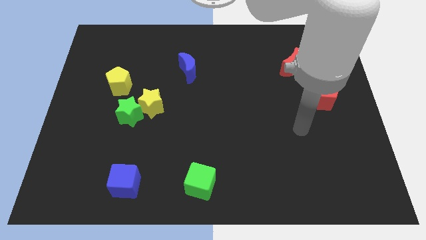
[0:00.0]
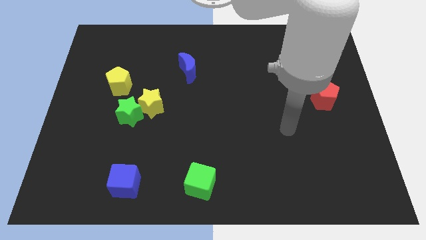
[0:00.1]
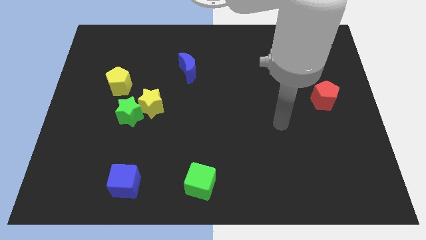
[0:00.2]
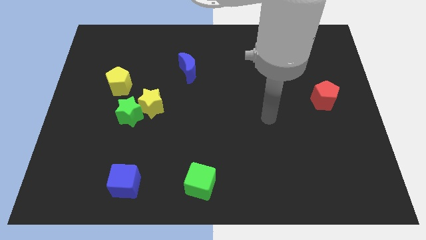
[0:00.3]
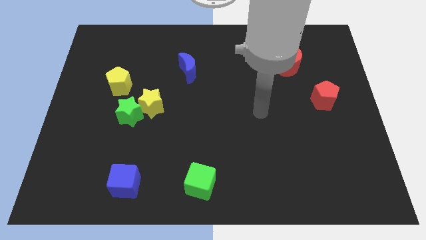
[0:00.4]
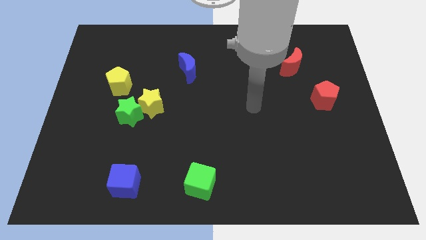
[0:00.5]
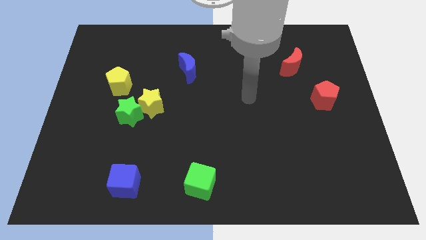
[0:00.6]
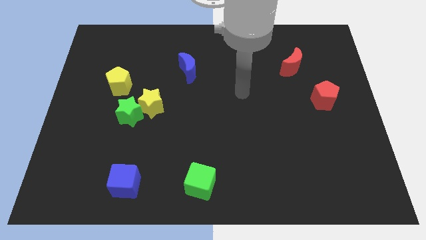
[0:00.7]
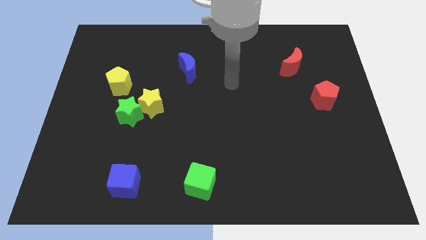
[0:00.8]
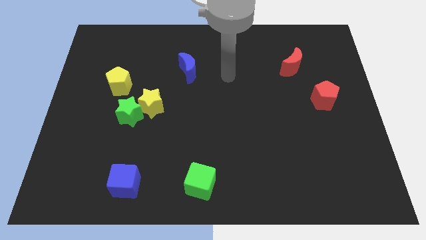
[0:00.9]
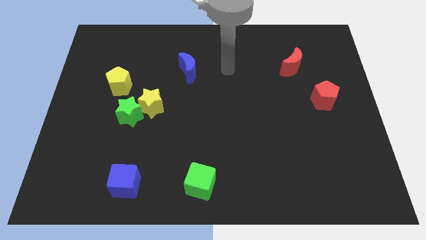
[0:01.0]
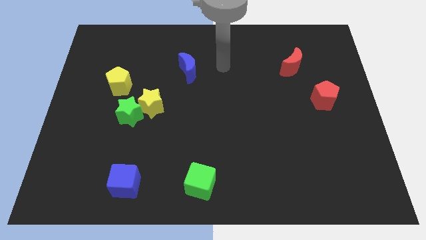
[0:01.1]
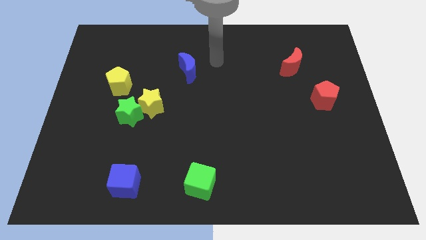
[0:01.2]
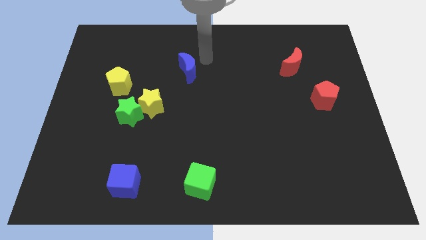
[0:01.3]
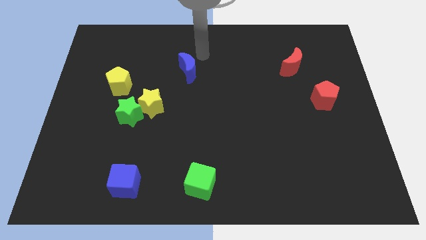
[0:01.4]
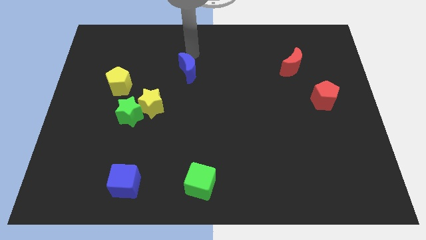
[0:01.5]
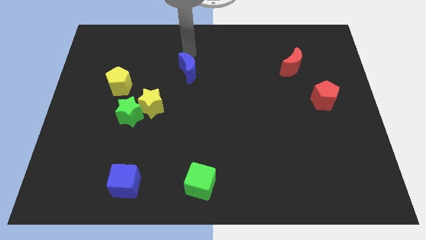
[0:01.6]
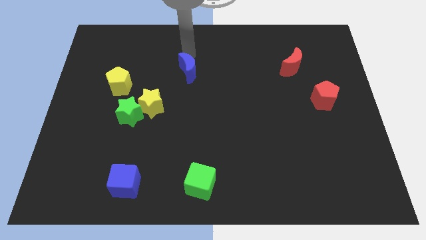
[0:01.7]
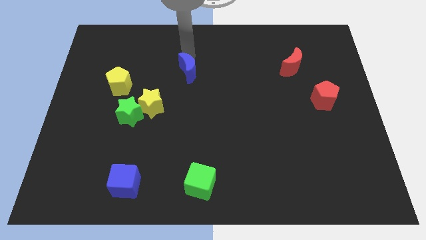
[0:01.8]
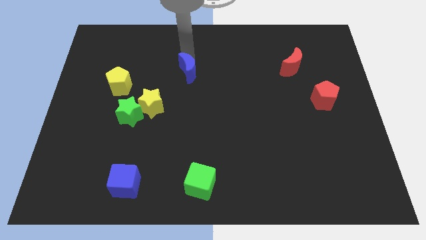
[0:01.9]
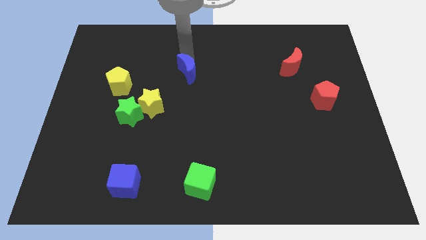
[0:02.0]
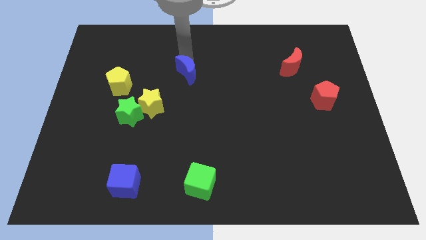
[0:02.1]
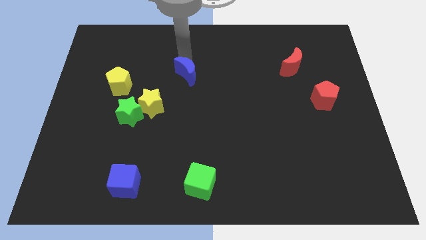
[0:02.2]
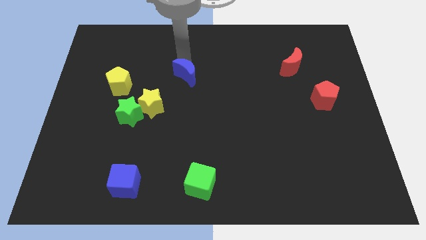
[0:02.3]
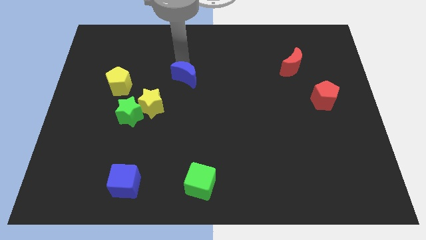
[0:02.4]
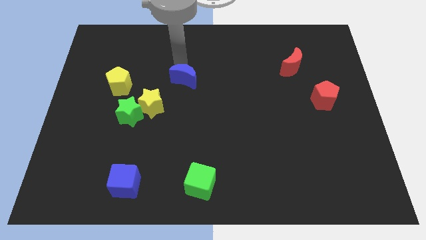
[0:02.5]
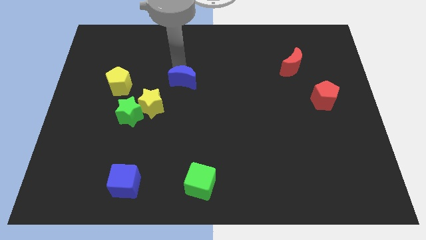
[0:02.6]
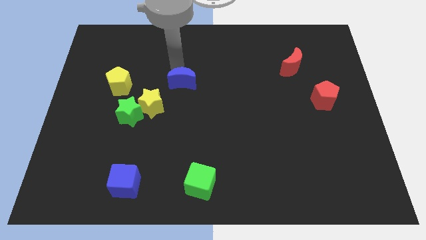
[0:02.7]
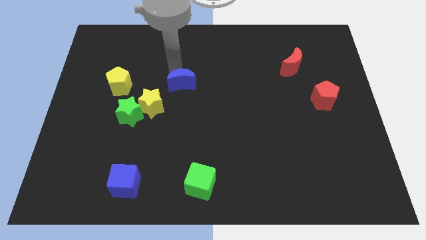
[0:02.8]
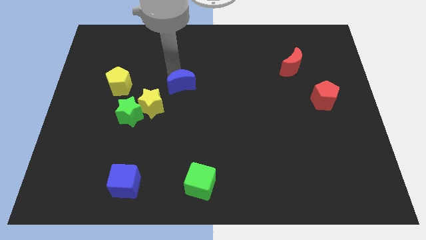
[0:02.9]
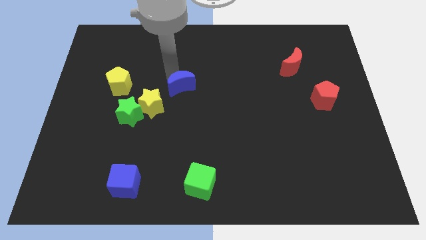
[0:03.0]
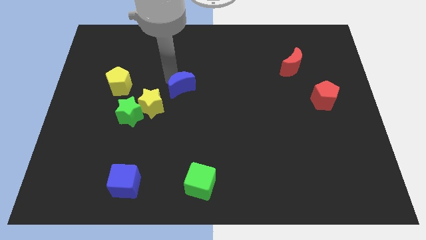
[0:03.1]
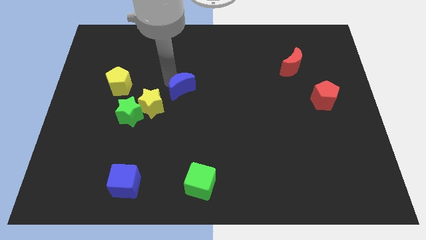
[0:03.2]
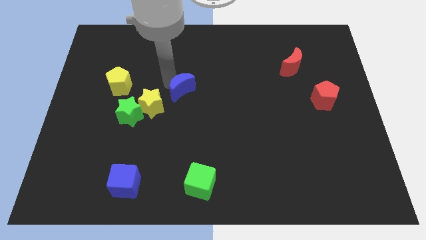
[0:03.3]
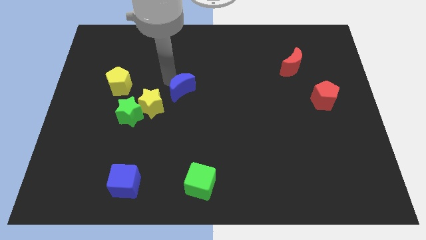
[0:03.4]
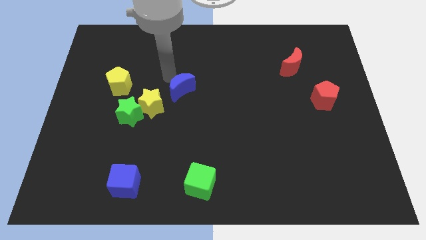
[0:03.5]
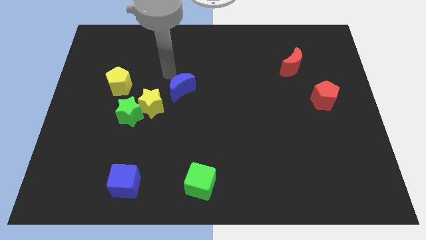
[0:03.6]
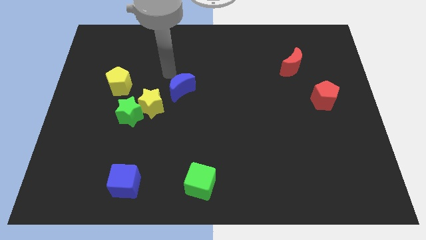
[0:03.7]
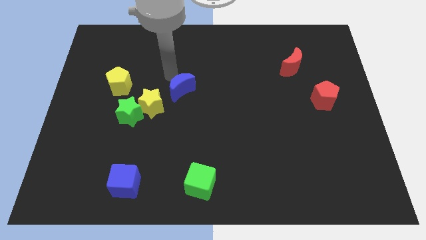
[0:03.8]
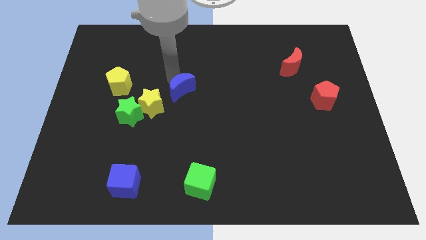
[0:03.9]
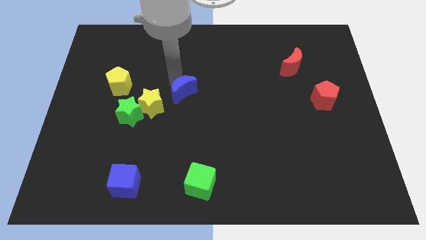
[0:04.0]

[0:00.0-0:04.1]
slightly slide the blue moon down

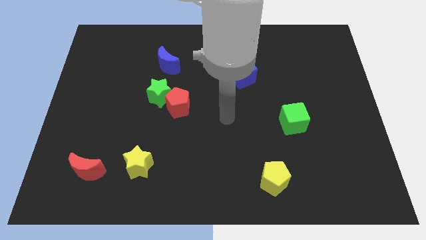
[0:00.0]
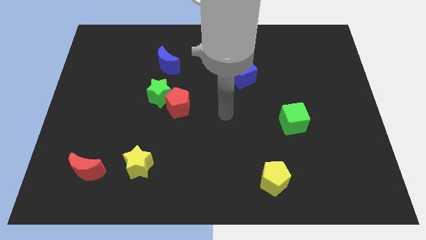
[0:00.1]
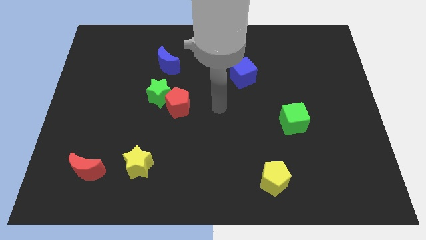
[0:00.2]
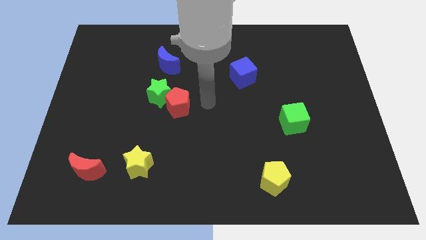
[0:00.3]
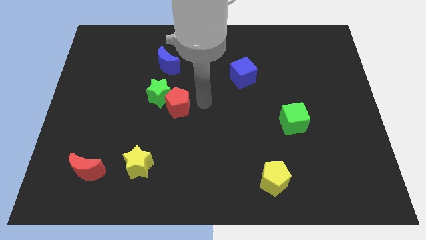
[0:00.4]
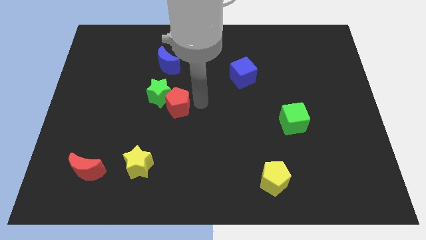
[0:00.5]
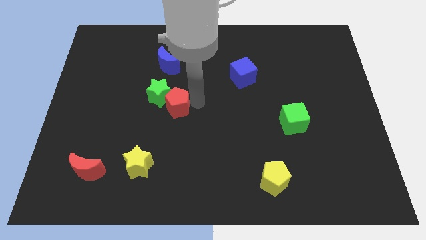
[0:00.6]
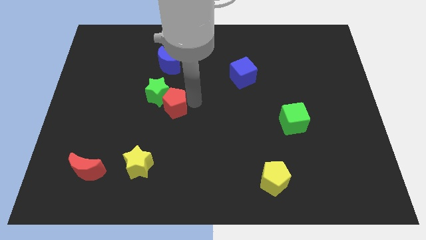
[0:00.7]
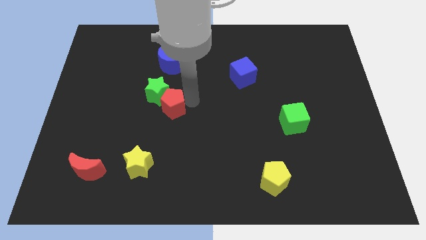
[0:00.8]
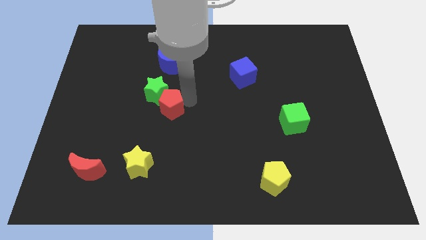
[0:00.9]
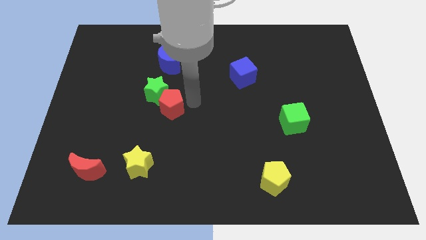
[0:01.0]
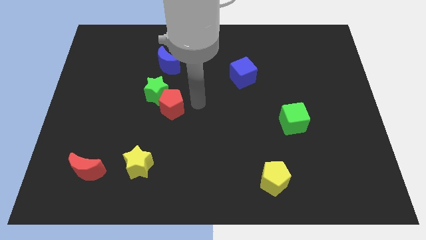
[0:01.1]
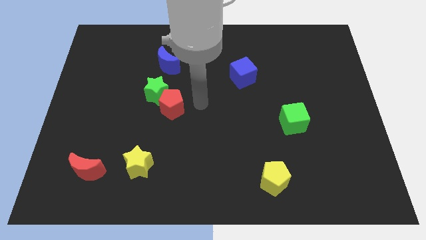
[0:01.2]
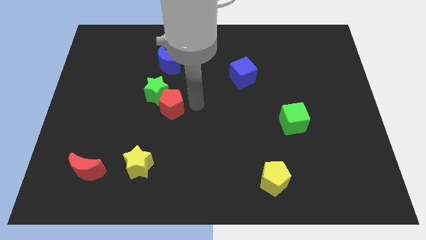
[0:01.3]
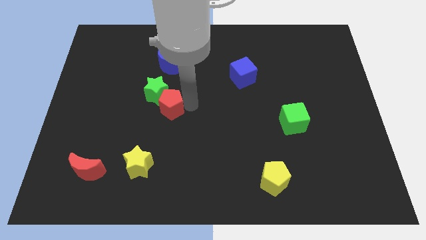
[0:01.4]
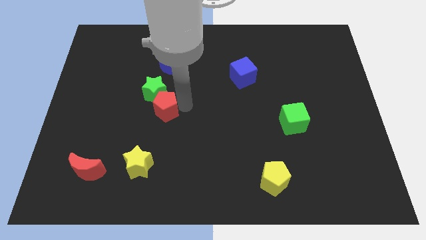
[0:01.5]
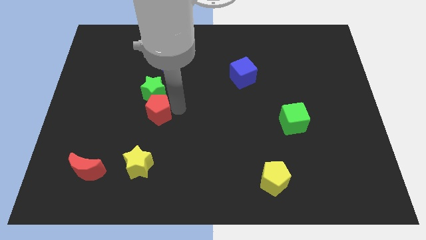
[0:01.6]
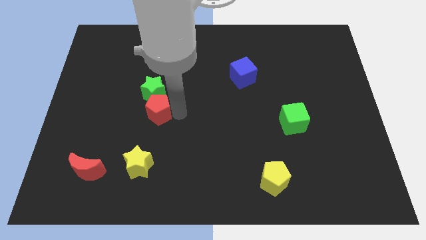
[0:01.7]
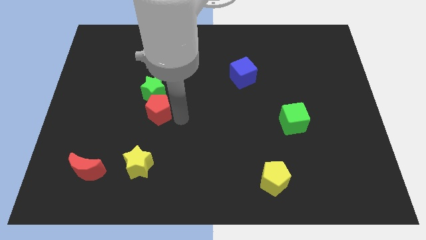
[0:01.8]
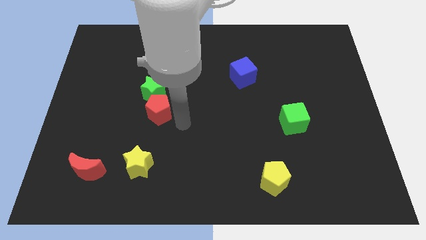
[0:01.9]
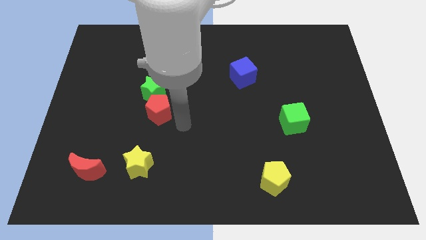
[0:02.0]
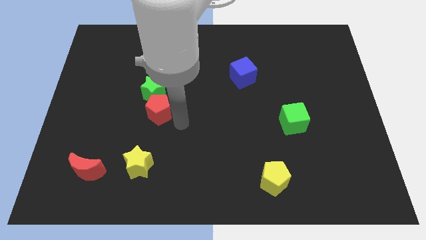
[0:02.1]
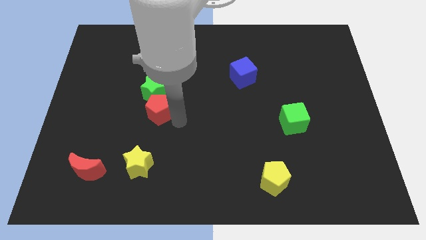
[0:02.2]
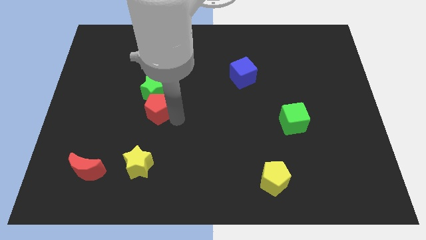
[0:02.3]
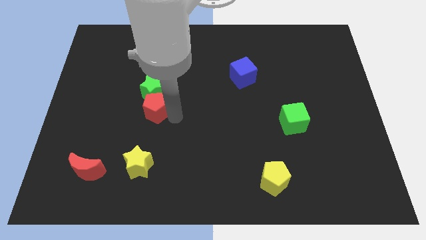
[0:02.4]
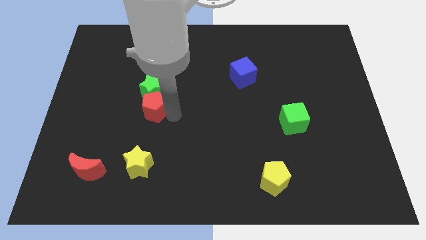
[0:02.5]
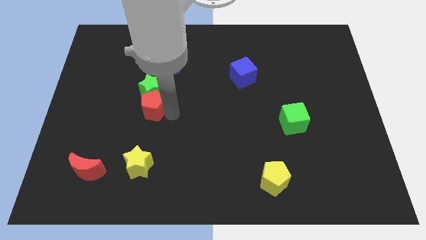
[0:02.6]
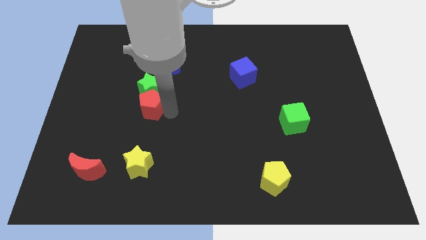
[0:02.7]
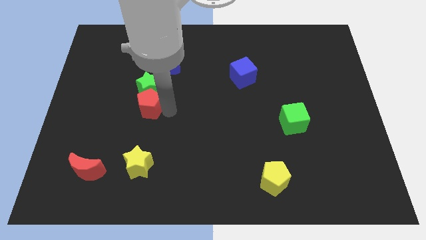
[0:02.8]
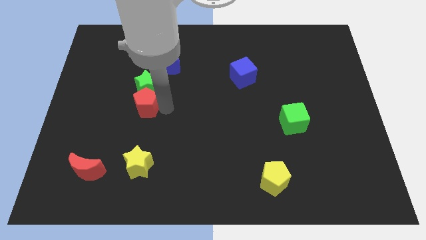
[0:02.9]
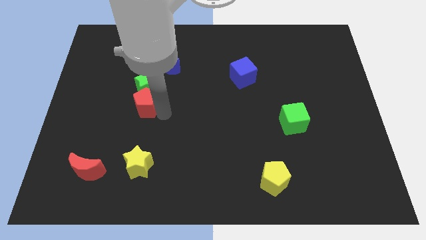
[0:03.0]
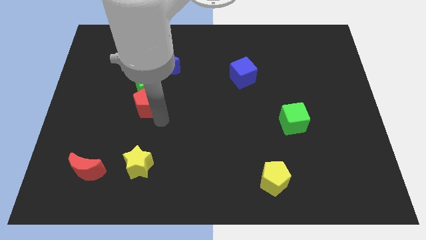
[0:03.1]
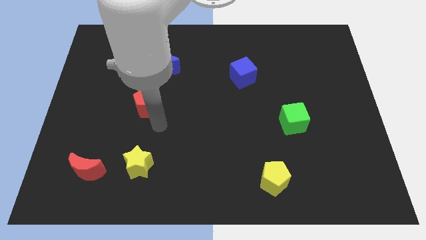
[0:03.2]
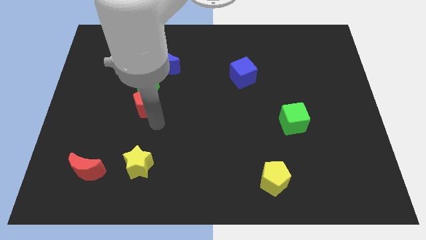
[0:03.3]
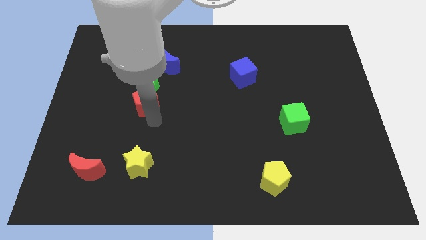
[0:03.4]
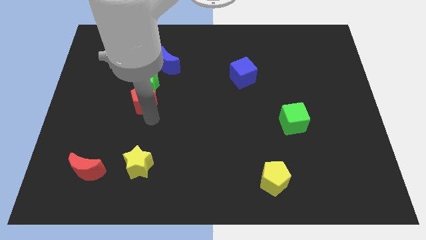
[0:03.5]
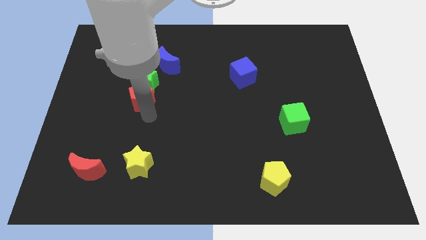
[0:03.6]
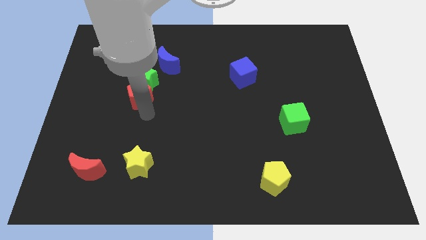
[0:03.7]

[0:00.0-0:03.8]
slightly move the red pentagon upwards and left diagonally
